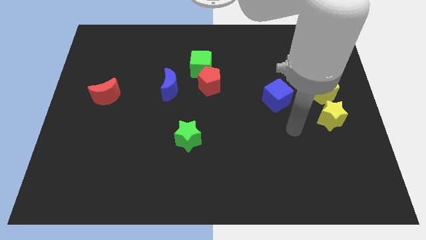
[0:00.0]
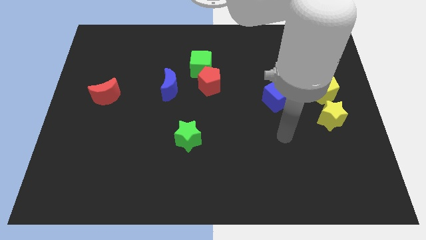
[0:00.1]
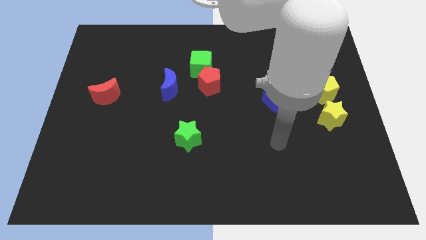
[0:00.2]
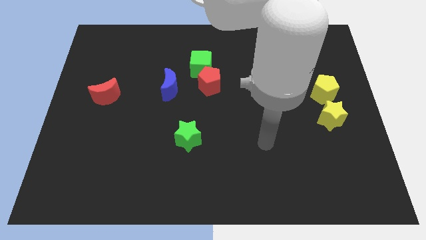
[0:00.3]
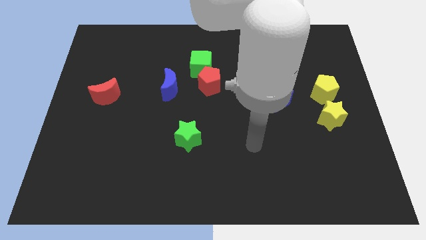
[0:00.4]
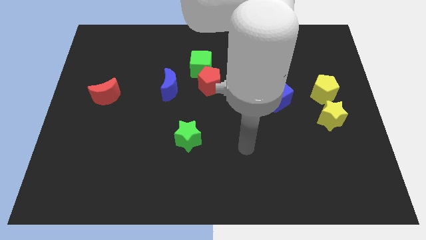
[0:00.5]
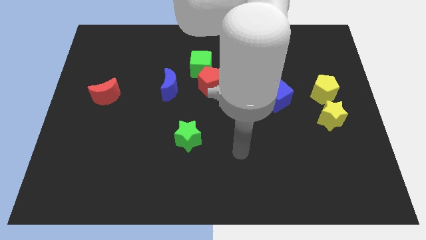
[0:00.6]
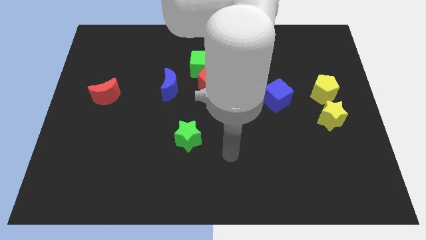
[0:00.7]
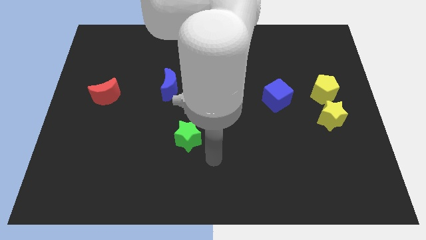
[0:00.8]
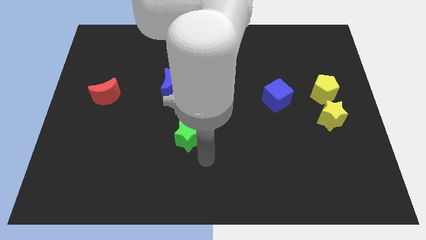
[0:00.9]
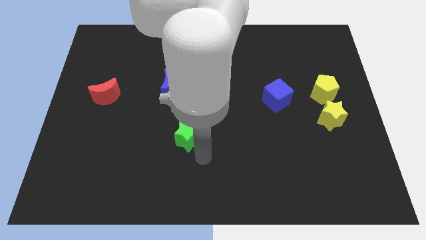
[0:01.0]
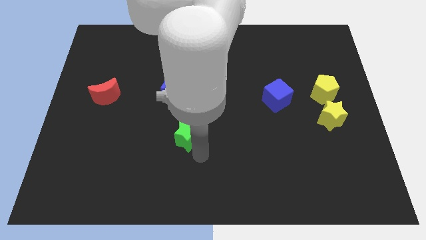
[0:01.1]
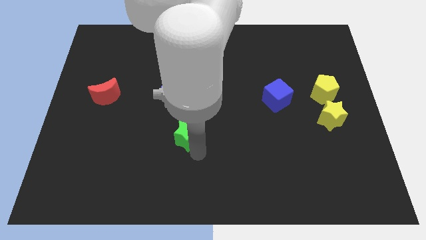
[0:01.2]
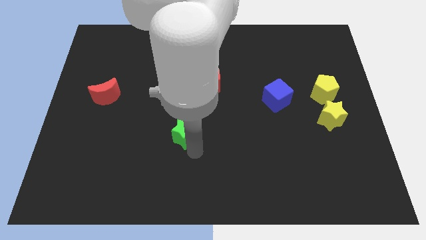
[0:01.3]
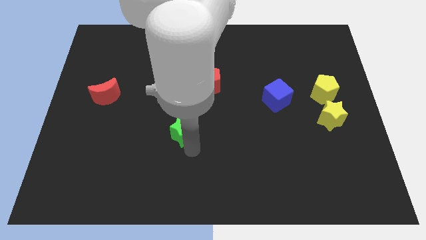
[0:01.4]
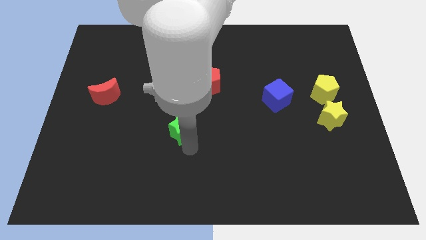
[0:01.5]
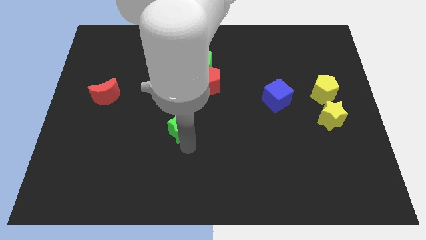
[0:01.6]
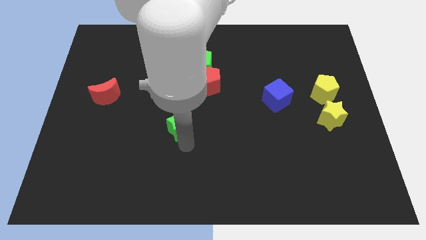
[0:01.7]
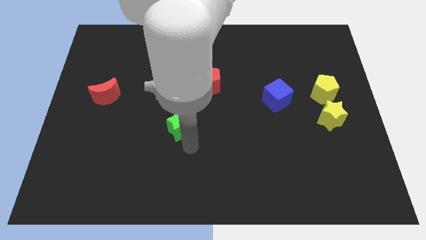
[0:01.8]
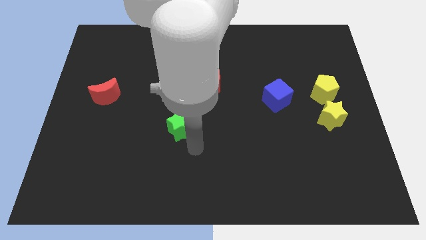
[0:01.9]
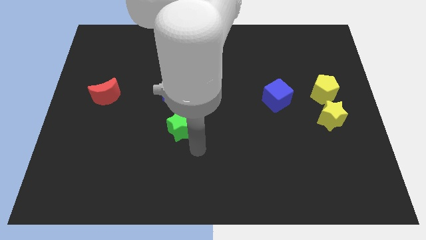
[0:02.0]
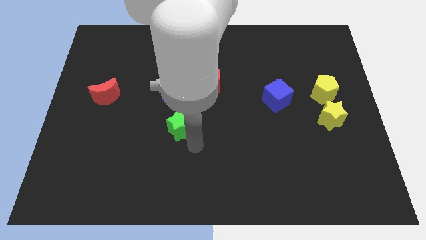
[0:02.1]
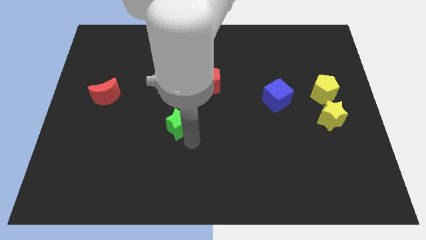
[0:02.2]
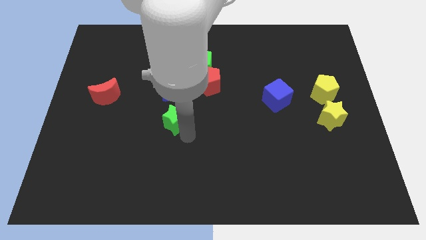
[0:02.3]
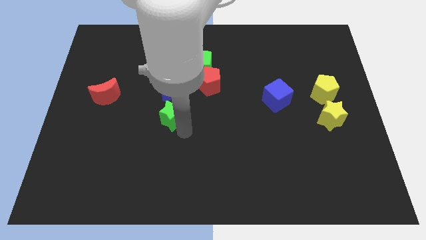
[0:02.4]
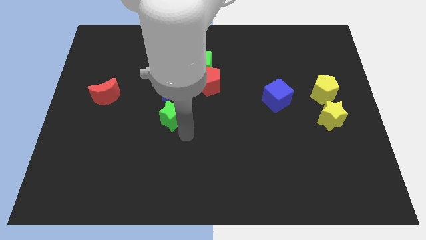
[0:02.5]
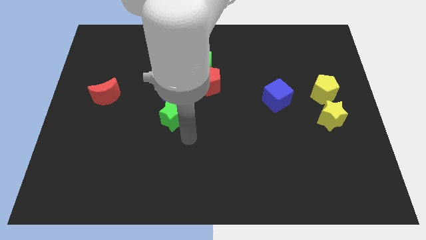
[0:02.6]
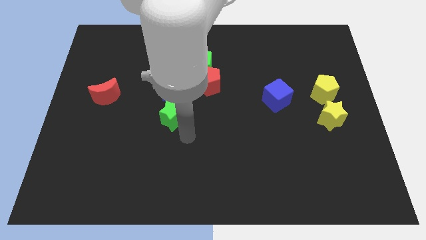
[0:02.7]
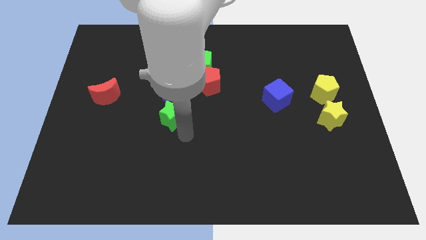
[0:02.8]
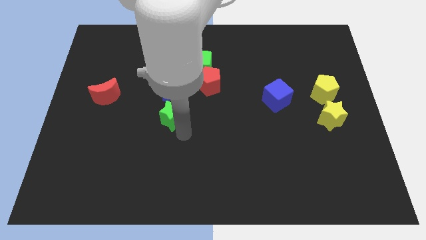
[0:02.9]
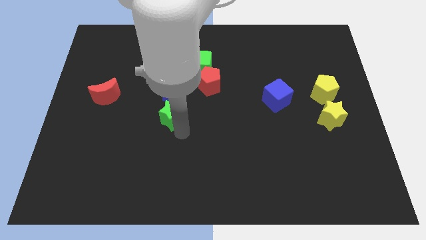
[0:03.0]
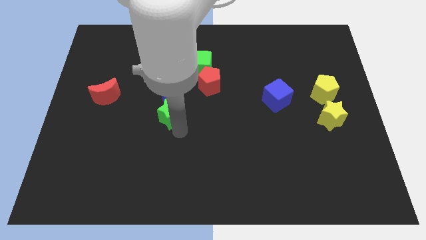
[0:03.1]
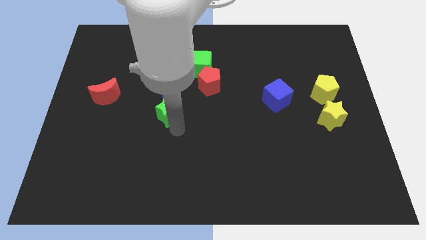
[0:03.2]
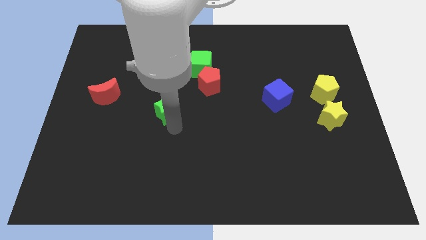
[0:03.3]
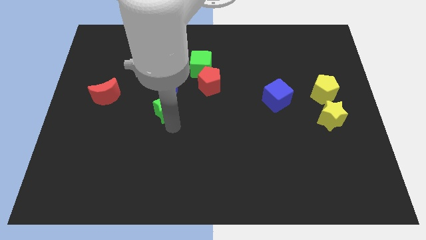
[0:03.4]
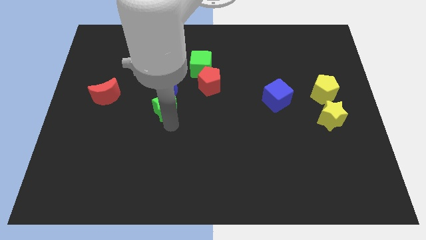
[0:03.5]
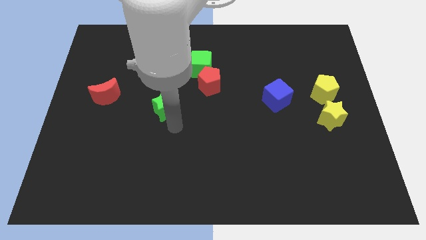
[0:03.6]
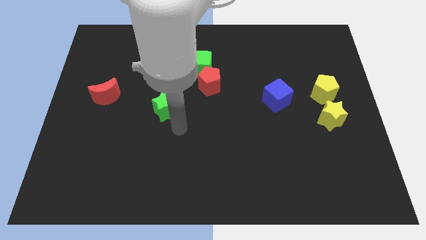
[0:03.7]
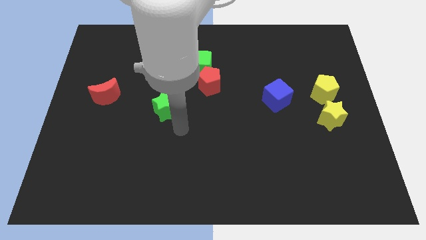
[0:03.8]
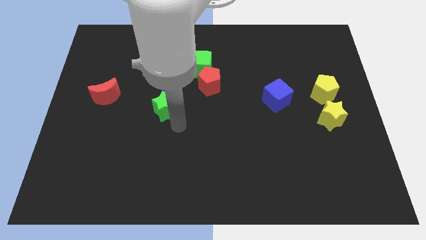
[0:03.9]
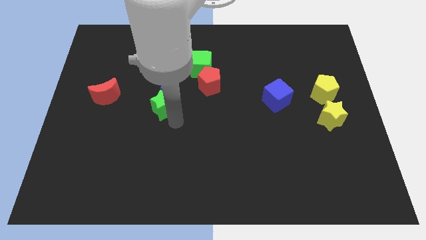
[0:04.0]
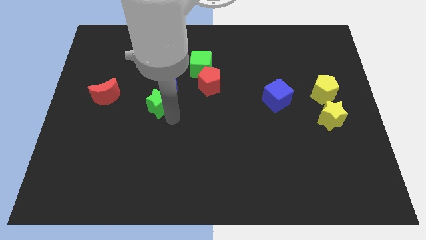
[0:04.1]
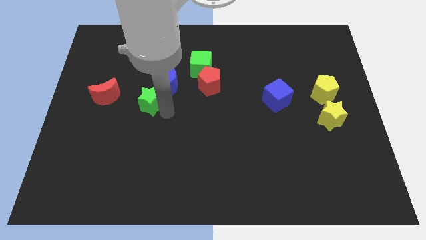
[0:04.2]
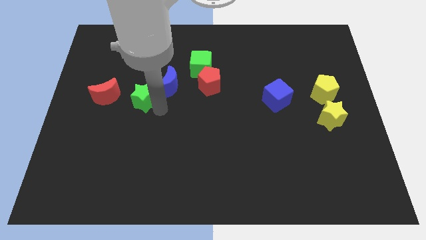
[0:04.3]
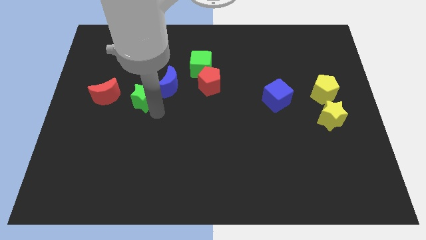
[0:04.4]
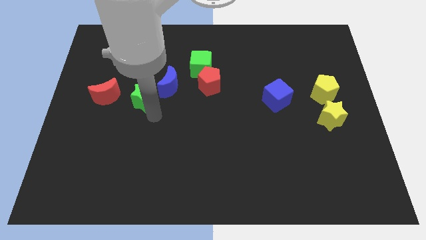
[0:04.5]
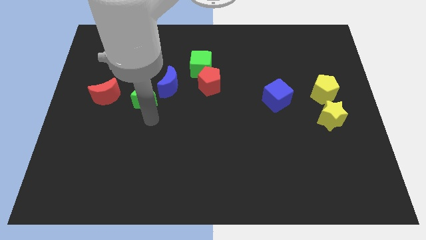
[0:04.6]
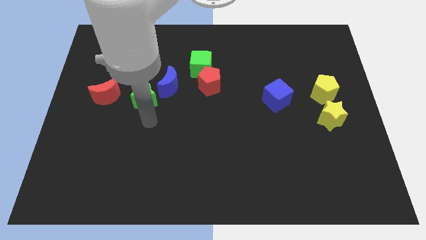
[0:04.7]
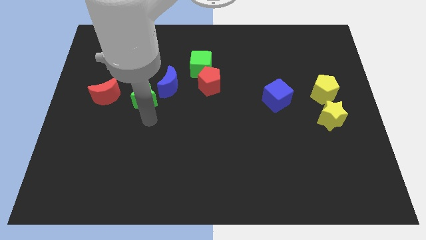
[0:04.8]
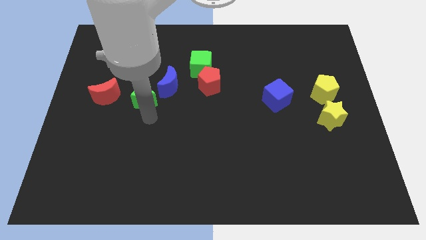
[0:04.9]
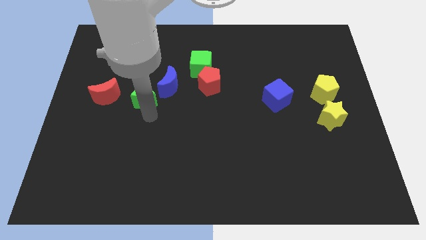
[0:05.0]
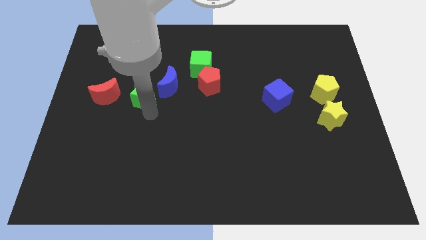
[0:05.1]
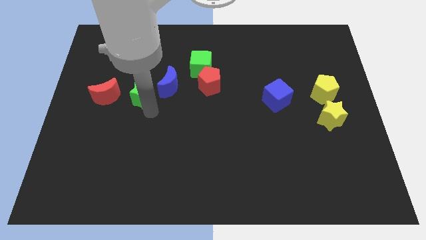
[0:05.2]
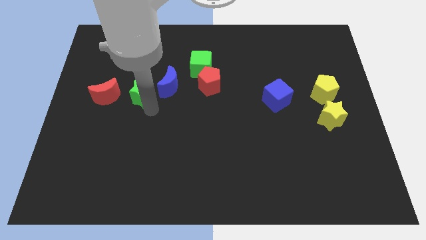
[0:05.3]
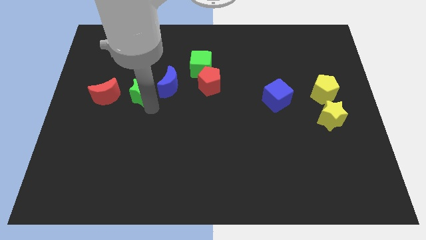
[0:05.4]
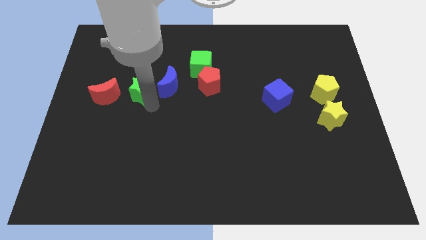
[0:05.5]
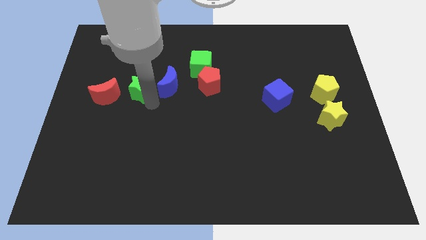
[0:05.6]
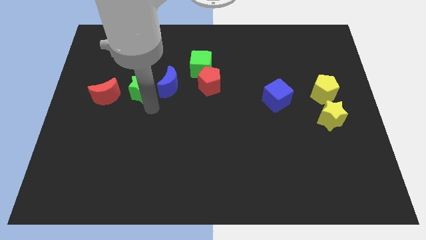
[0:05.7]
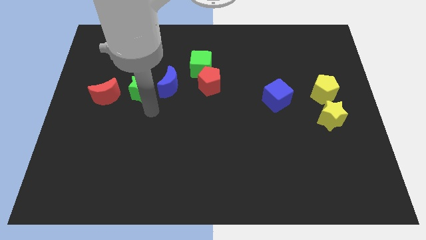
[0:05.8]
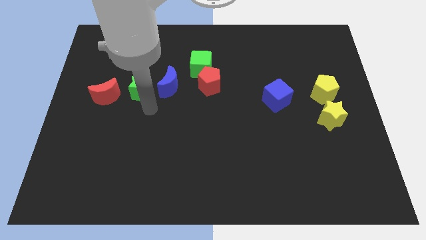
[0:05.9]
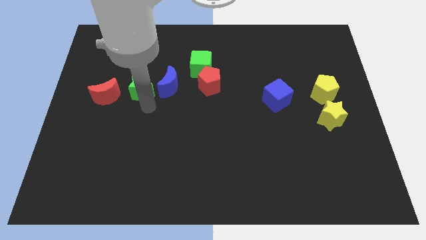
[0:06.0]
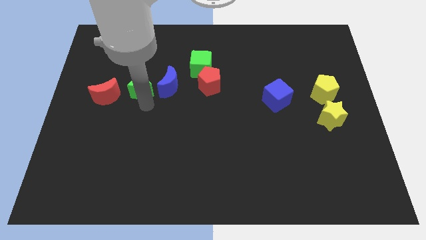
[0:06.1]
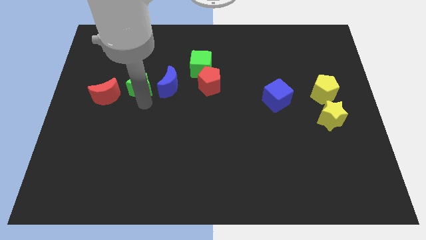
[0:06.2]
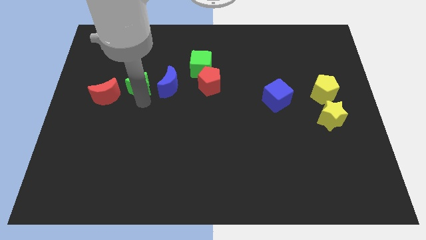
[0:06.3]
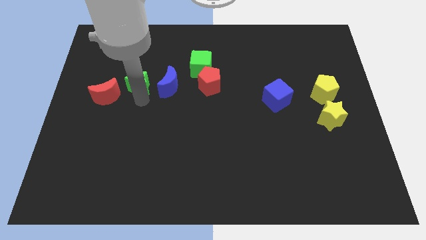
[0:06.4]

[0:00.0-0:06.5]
move the green star upwards and to the left diagonally

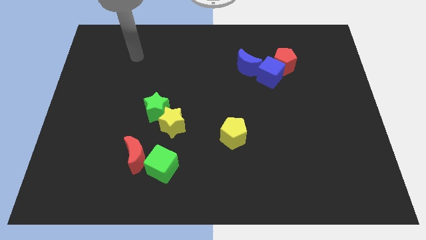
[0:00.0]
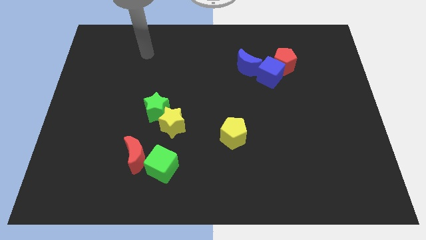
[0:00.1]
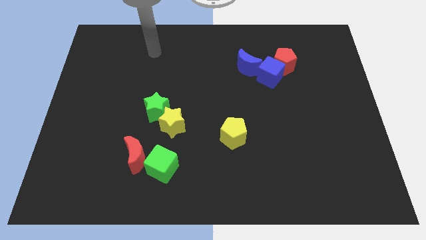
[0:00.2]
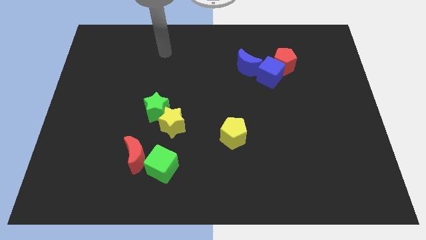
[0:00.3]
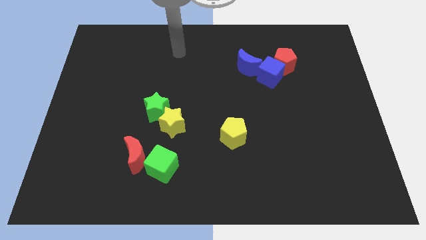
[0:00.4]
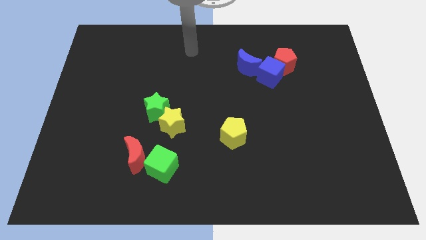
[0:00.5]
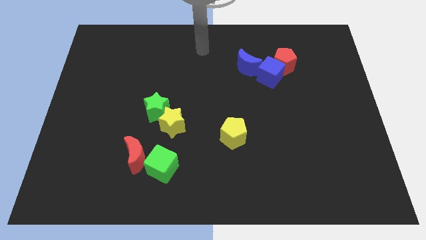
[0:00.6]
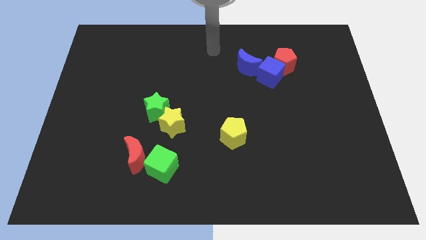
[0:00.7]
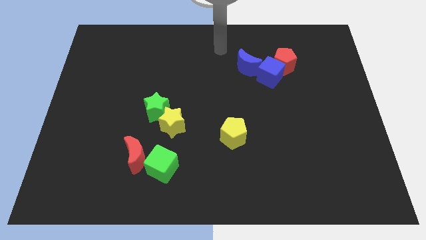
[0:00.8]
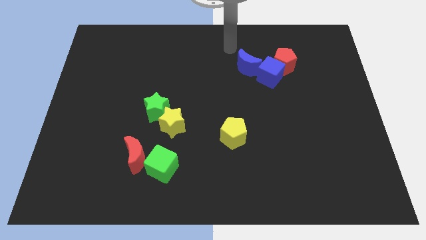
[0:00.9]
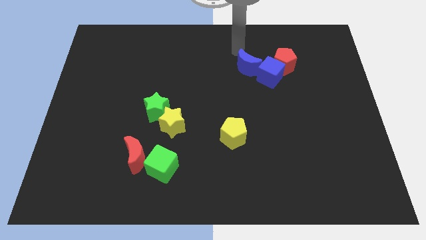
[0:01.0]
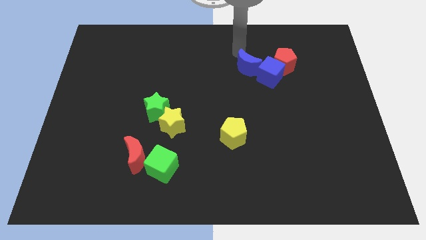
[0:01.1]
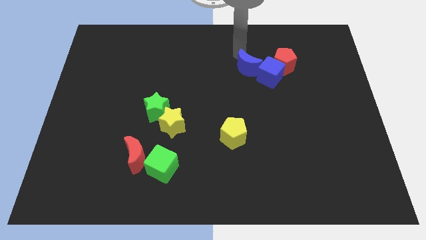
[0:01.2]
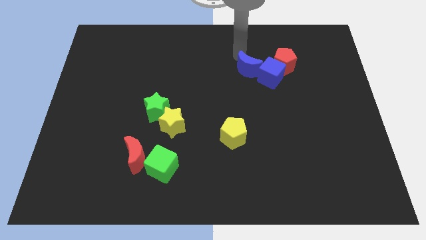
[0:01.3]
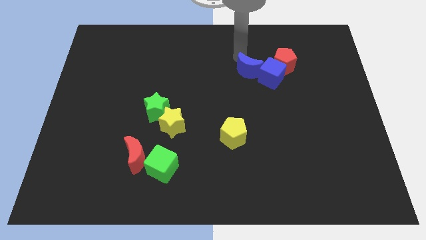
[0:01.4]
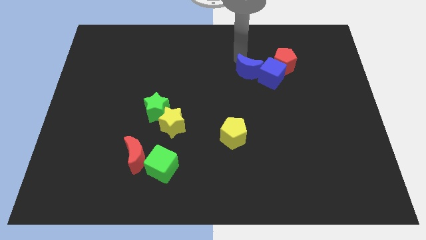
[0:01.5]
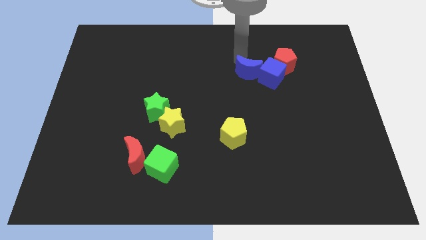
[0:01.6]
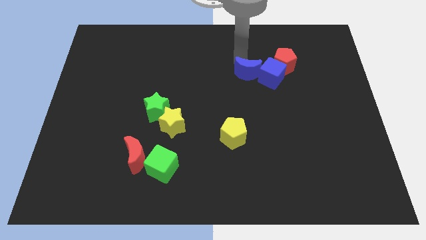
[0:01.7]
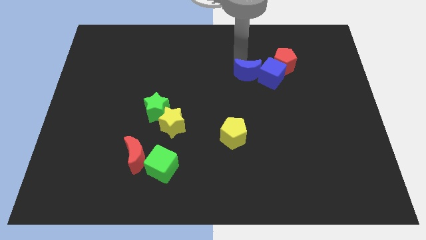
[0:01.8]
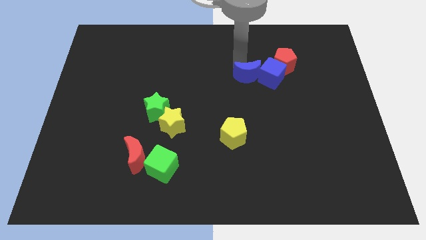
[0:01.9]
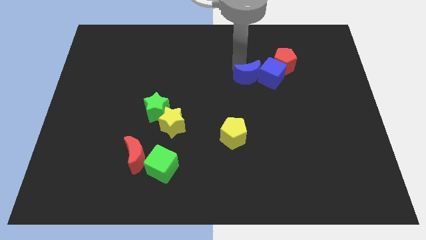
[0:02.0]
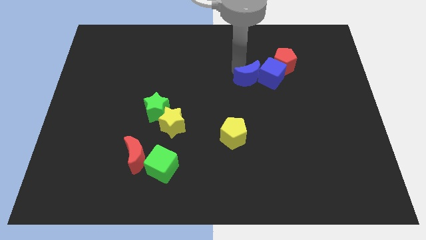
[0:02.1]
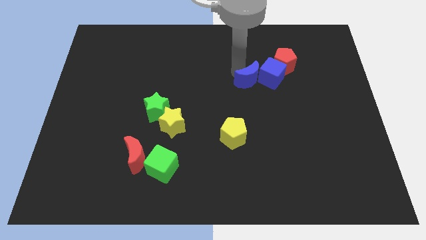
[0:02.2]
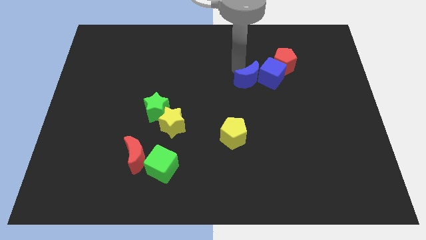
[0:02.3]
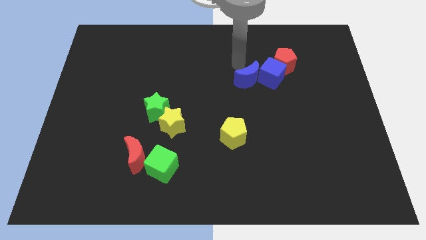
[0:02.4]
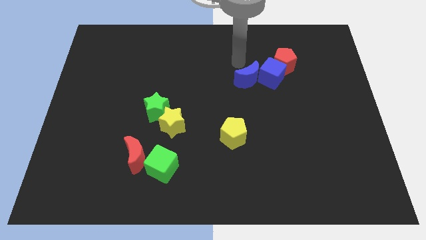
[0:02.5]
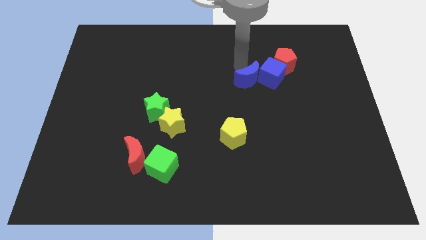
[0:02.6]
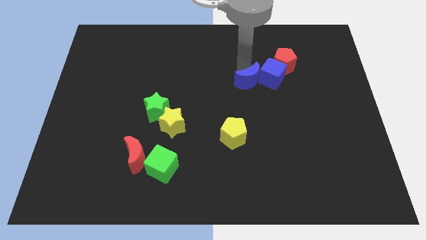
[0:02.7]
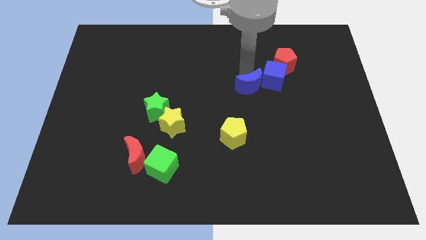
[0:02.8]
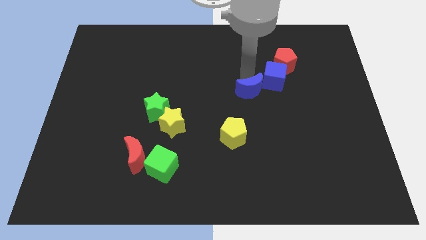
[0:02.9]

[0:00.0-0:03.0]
move the blue moon slightly downwards
